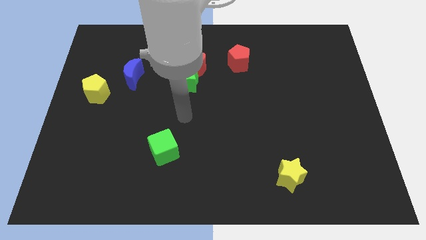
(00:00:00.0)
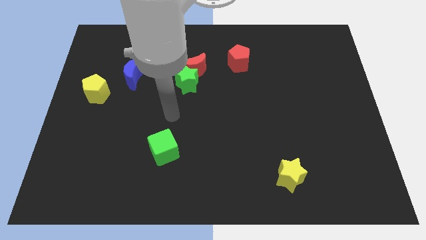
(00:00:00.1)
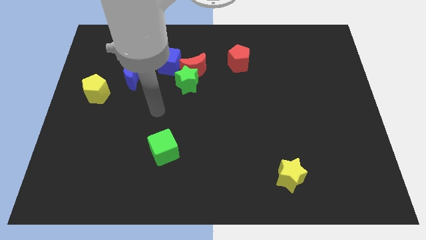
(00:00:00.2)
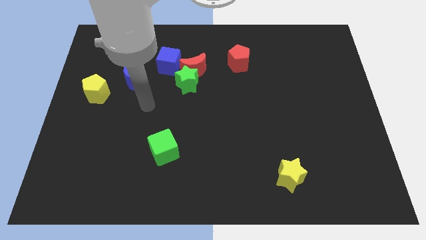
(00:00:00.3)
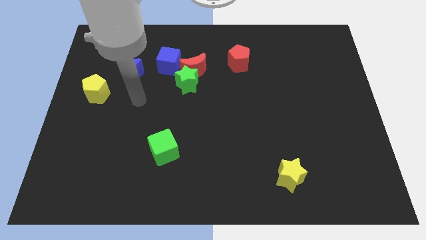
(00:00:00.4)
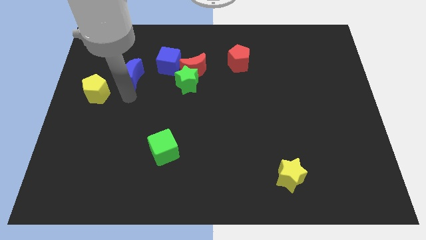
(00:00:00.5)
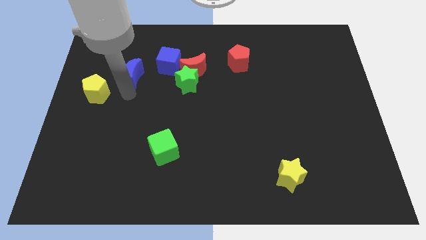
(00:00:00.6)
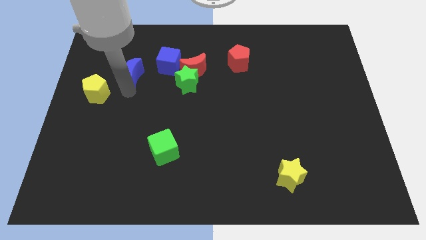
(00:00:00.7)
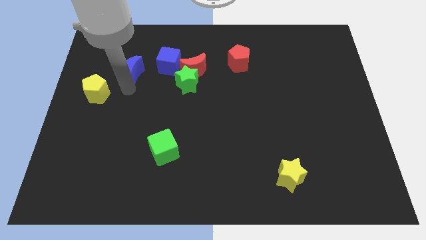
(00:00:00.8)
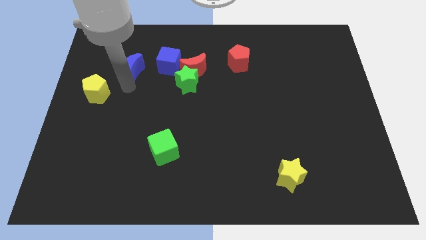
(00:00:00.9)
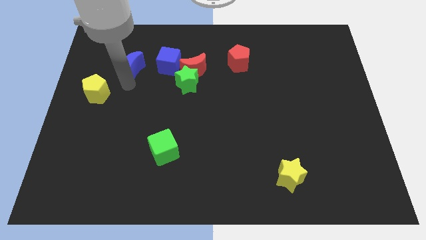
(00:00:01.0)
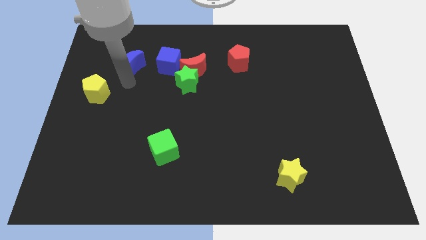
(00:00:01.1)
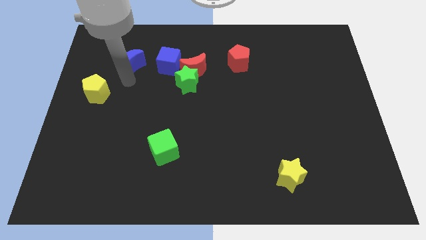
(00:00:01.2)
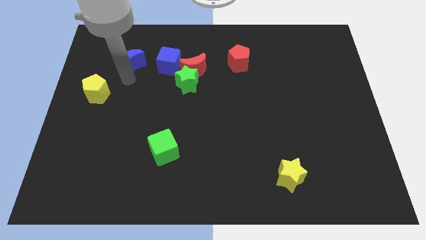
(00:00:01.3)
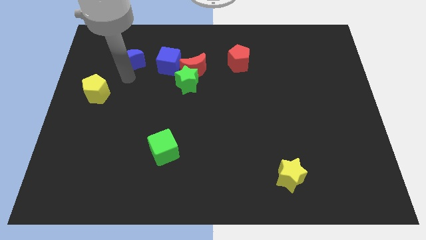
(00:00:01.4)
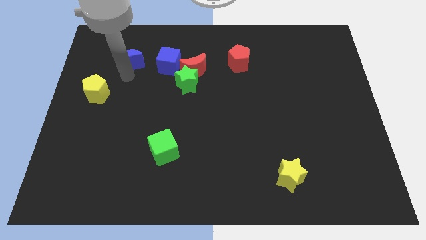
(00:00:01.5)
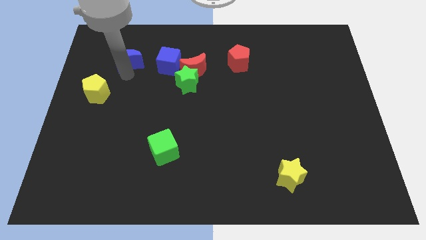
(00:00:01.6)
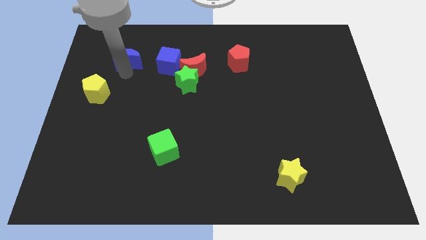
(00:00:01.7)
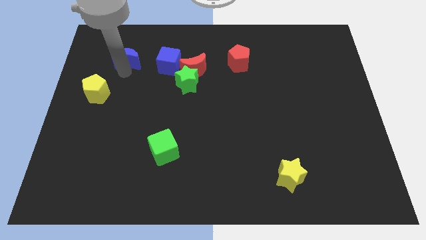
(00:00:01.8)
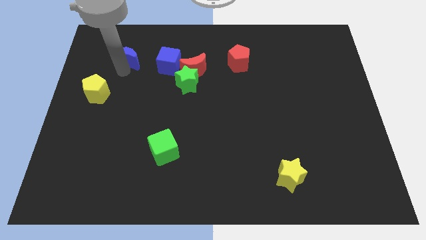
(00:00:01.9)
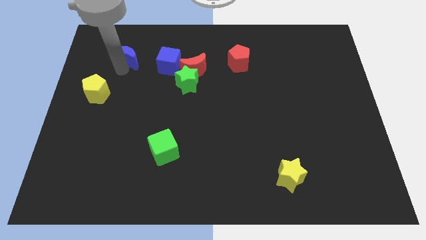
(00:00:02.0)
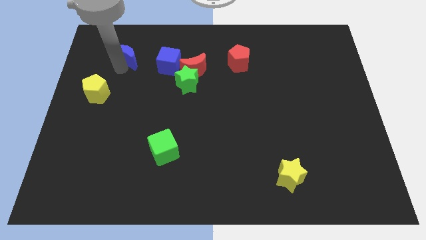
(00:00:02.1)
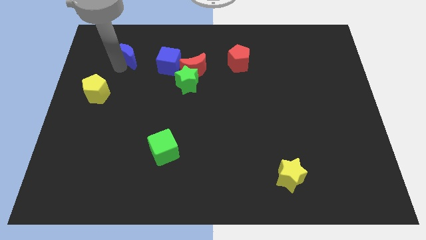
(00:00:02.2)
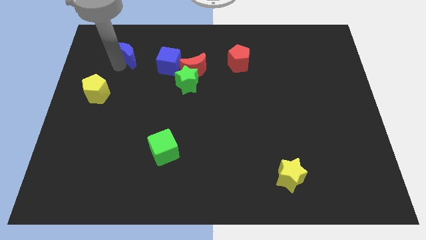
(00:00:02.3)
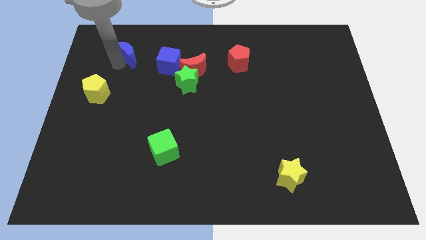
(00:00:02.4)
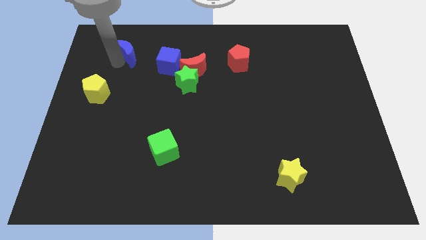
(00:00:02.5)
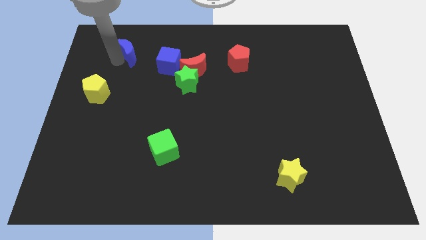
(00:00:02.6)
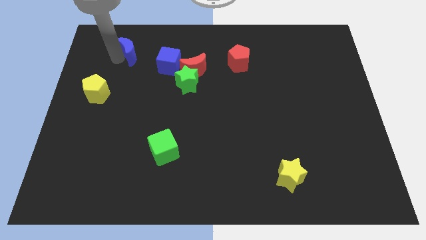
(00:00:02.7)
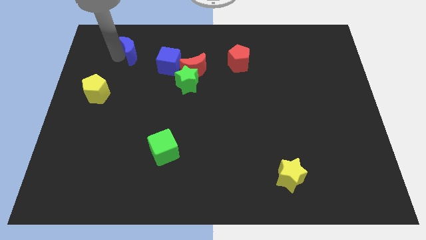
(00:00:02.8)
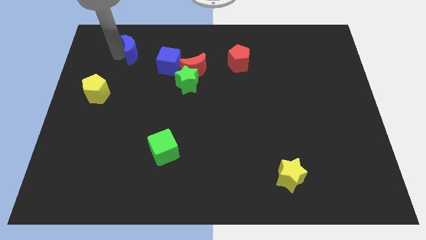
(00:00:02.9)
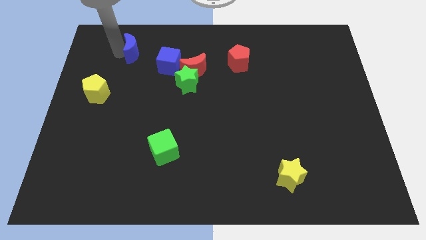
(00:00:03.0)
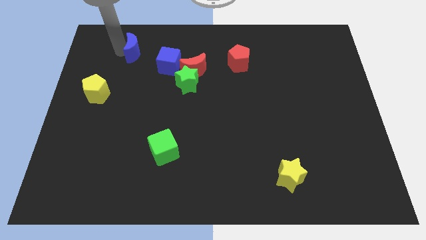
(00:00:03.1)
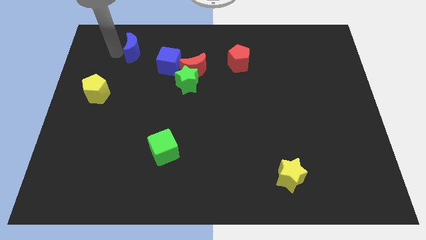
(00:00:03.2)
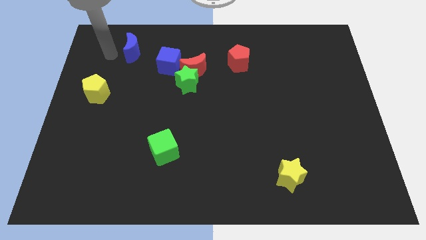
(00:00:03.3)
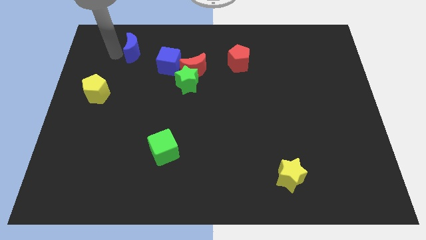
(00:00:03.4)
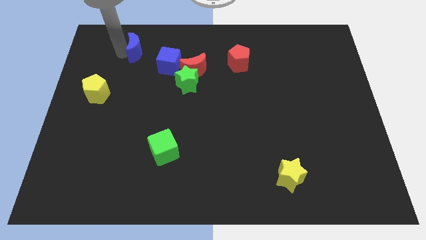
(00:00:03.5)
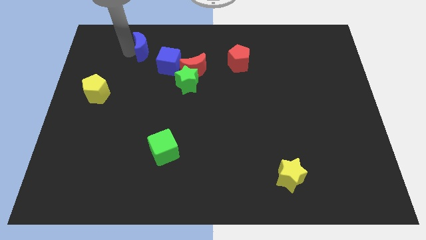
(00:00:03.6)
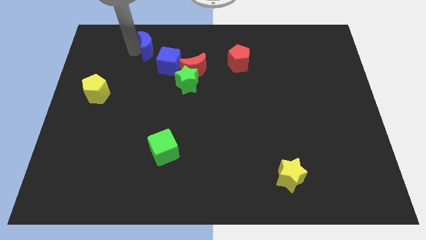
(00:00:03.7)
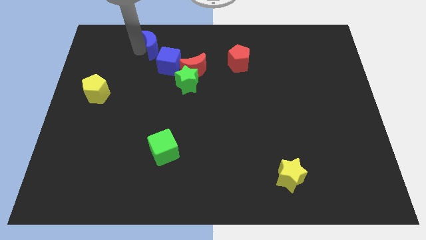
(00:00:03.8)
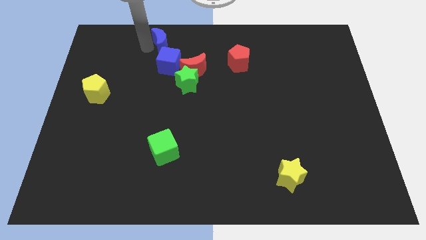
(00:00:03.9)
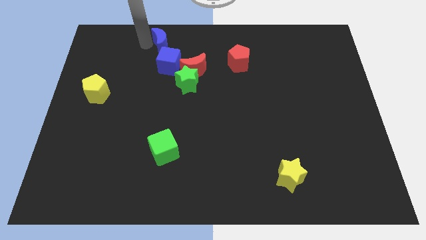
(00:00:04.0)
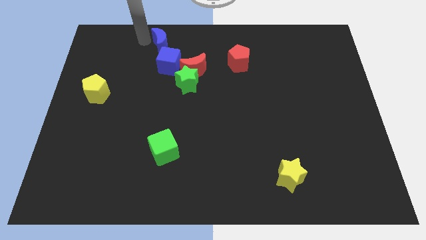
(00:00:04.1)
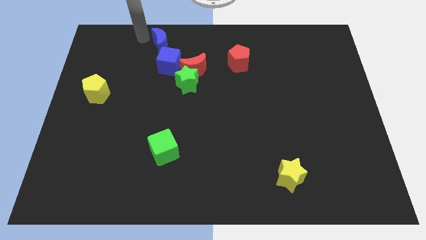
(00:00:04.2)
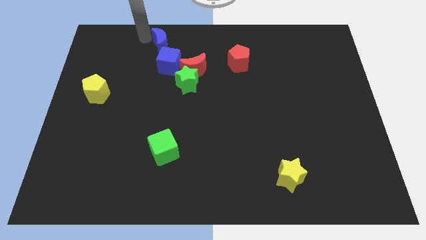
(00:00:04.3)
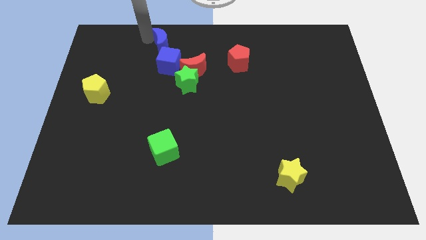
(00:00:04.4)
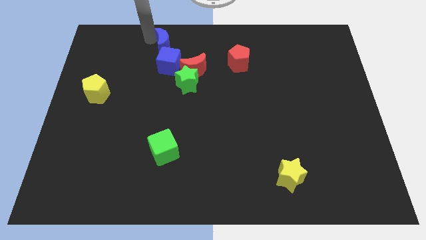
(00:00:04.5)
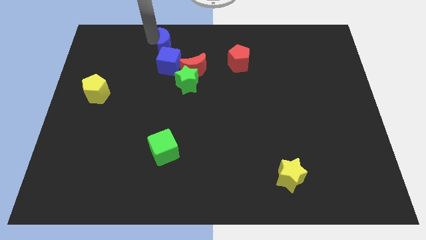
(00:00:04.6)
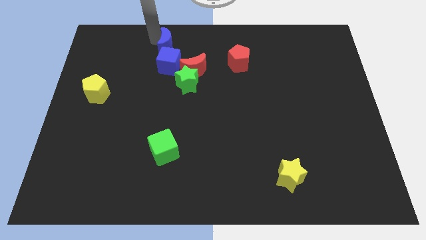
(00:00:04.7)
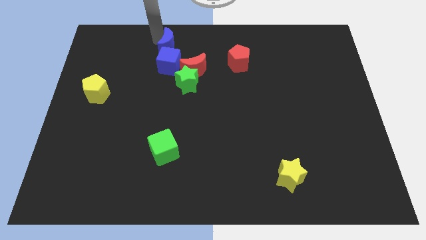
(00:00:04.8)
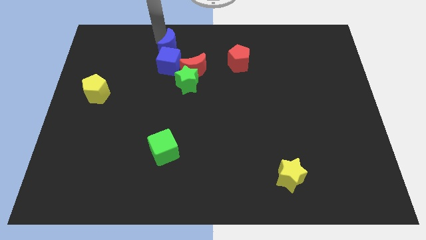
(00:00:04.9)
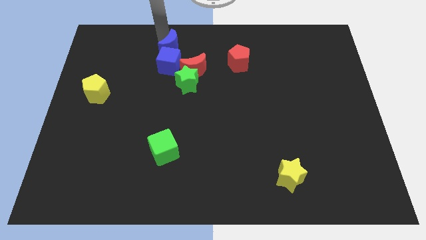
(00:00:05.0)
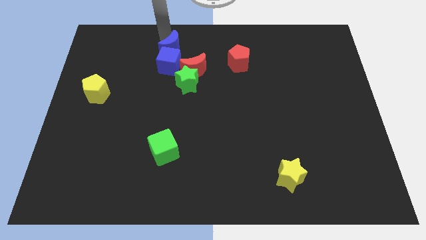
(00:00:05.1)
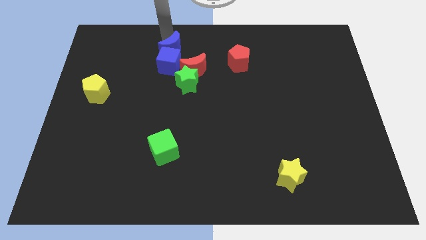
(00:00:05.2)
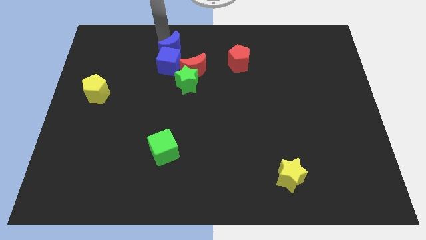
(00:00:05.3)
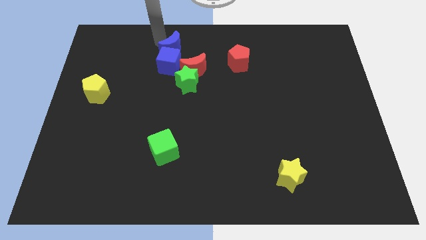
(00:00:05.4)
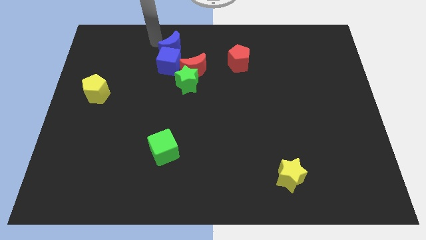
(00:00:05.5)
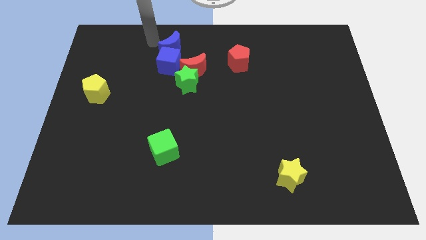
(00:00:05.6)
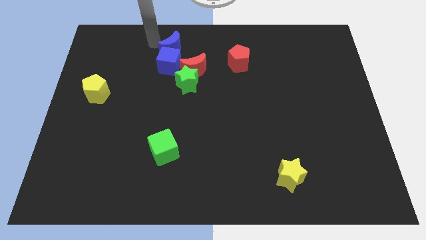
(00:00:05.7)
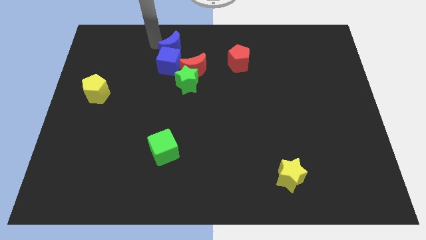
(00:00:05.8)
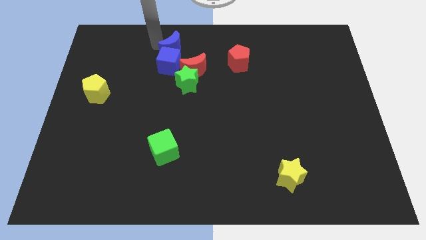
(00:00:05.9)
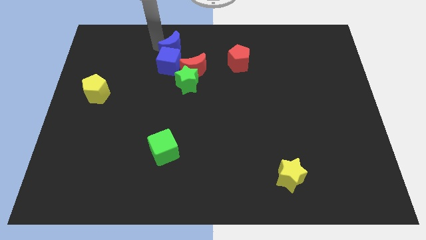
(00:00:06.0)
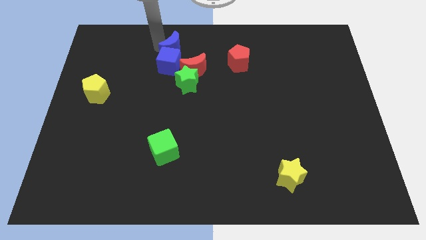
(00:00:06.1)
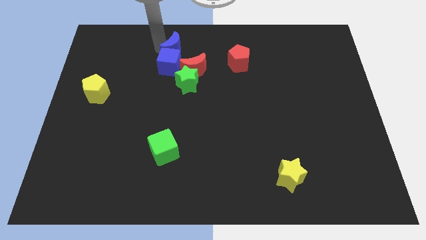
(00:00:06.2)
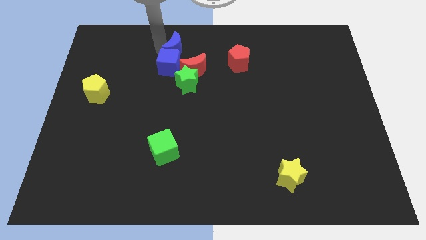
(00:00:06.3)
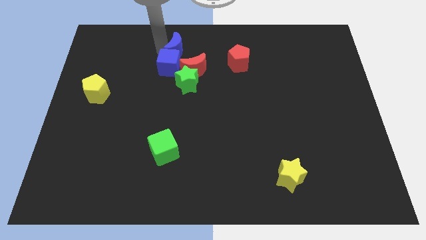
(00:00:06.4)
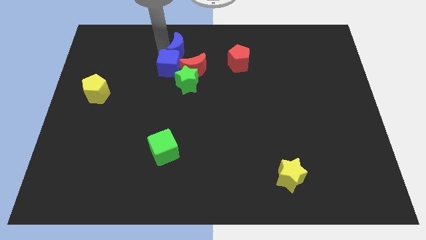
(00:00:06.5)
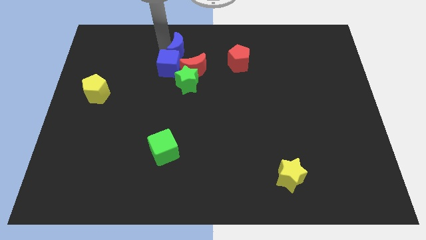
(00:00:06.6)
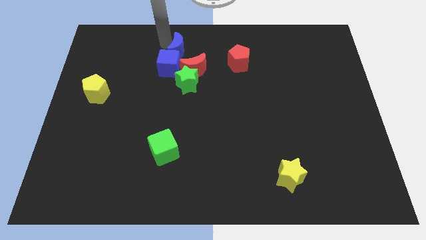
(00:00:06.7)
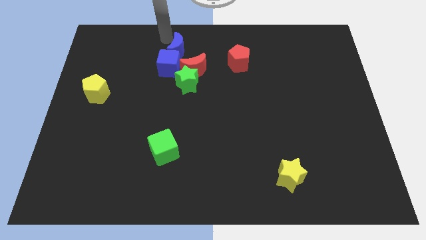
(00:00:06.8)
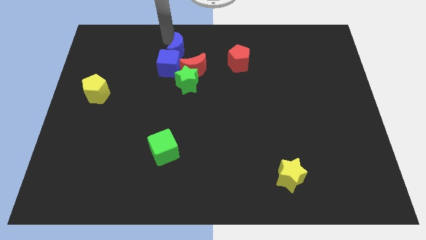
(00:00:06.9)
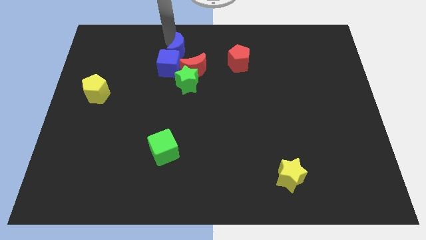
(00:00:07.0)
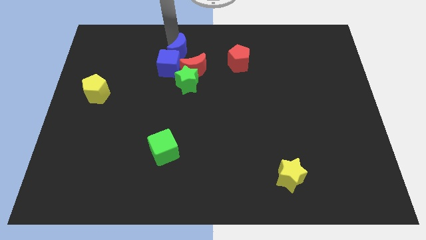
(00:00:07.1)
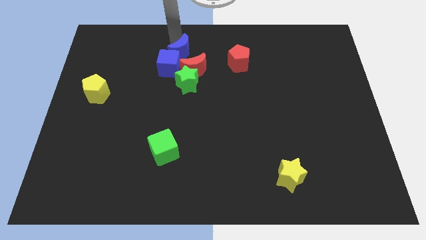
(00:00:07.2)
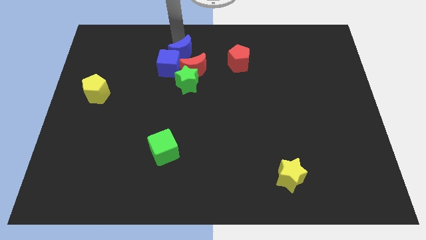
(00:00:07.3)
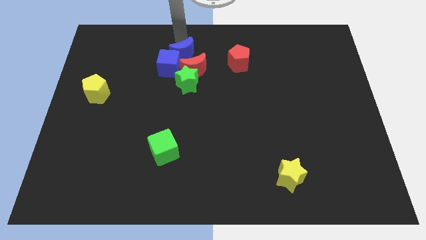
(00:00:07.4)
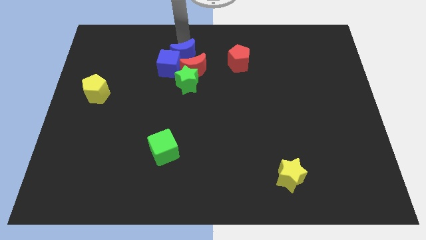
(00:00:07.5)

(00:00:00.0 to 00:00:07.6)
put the blue moon to the red moon
